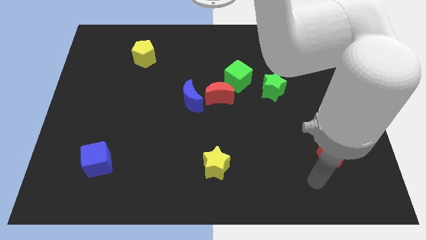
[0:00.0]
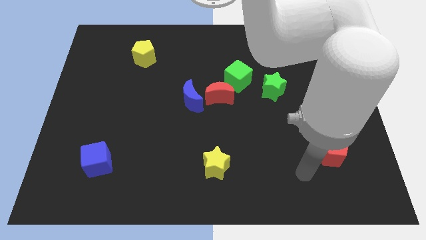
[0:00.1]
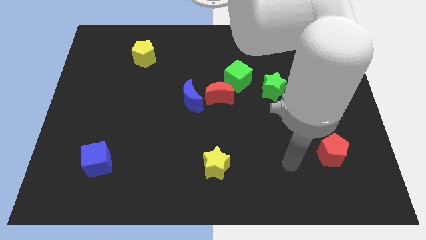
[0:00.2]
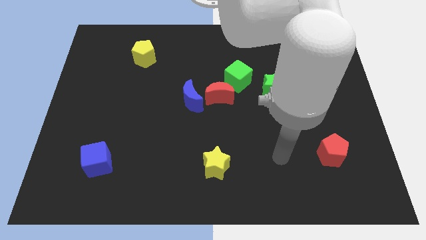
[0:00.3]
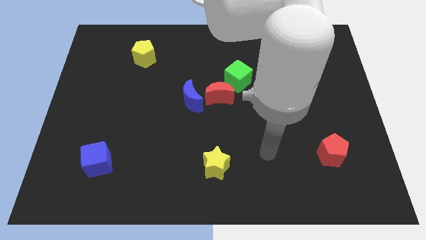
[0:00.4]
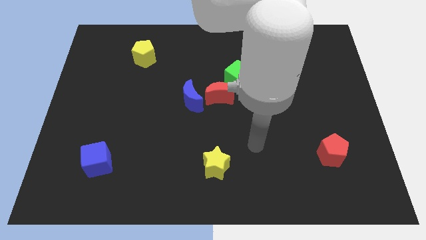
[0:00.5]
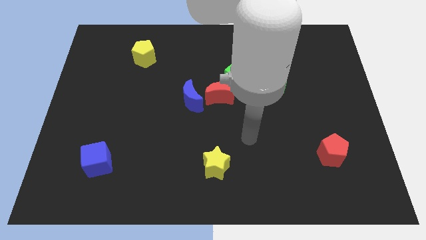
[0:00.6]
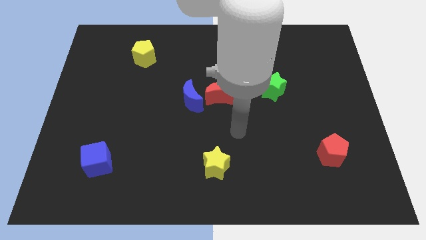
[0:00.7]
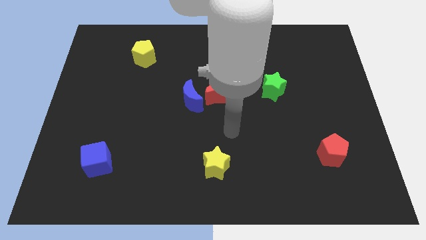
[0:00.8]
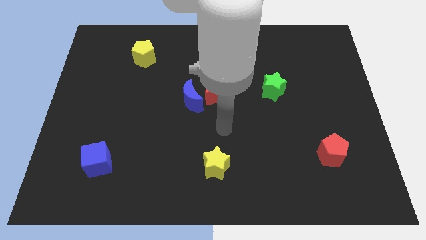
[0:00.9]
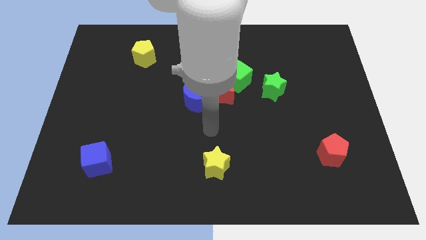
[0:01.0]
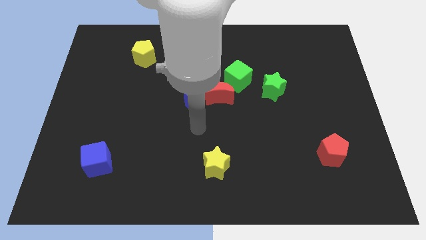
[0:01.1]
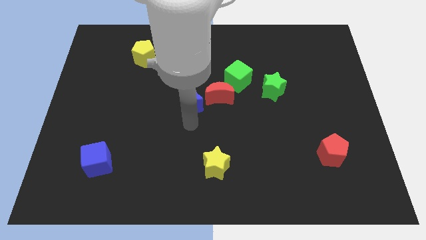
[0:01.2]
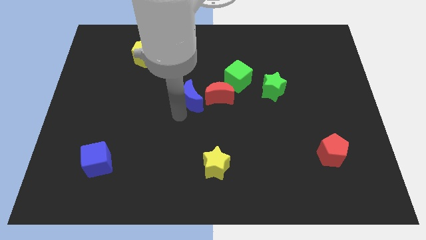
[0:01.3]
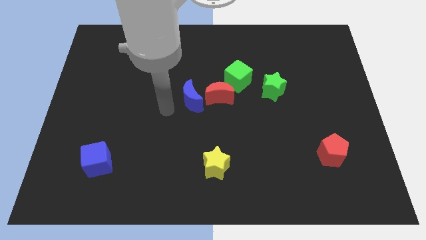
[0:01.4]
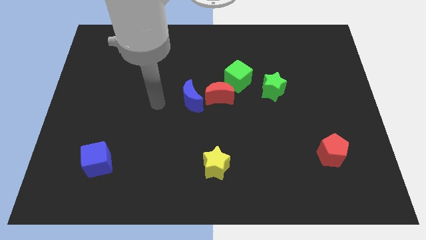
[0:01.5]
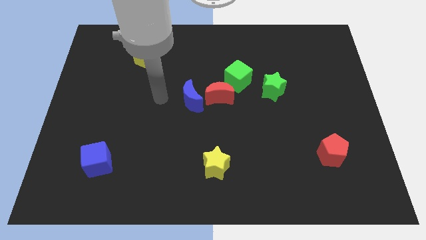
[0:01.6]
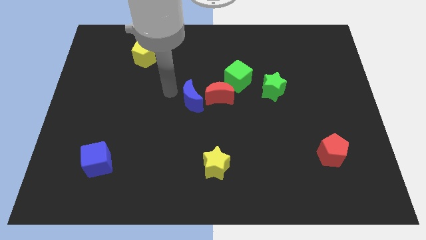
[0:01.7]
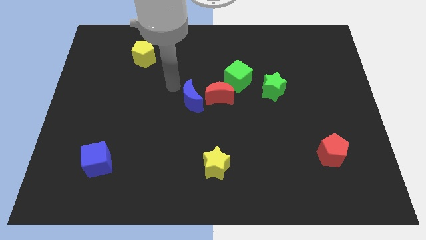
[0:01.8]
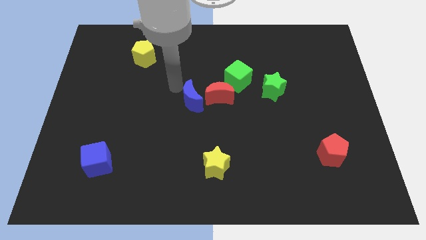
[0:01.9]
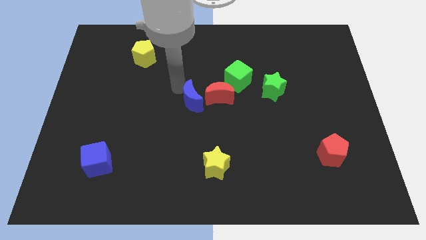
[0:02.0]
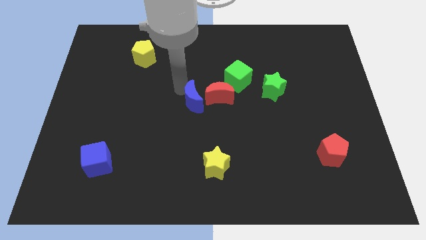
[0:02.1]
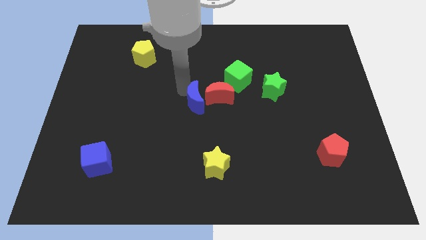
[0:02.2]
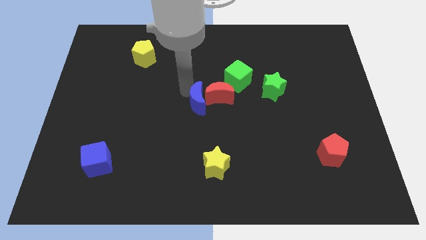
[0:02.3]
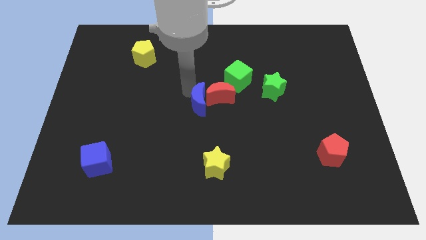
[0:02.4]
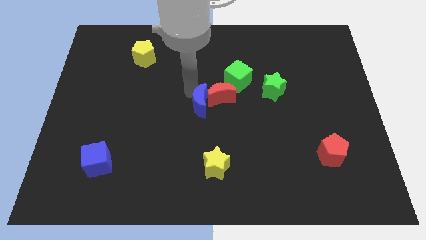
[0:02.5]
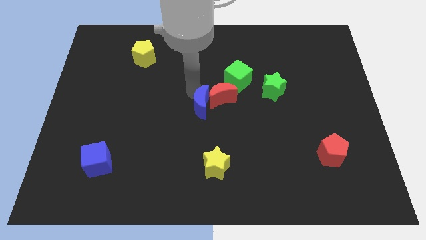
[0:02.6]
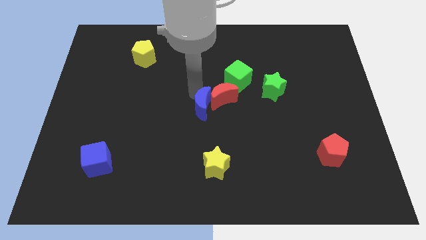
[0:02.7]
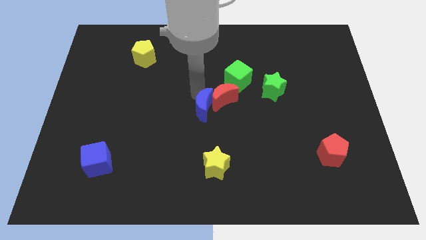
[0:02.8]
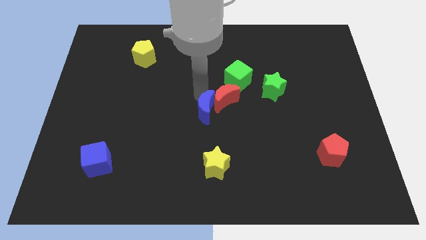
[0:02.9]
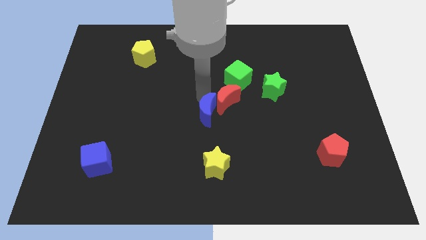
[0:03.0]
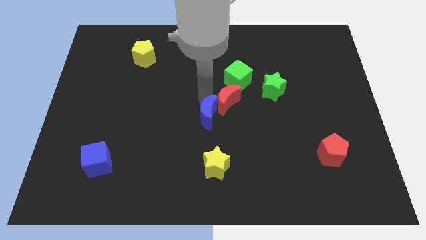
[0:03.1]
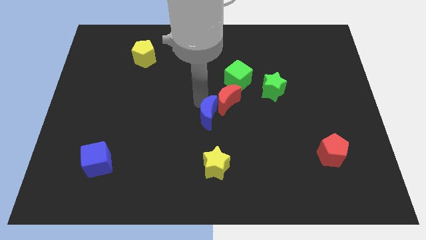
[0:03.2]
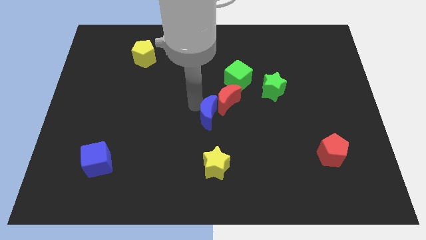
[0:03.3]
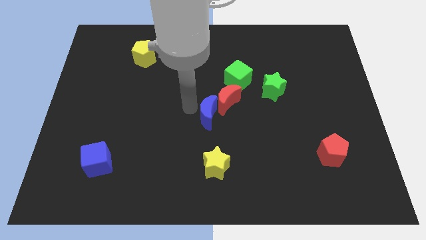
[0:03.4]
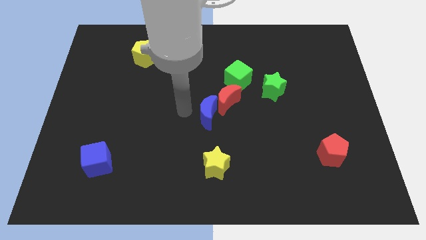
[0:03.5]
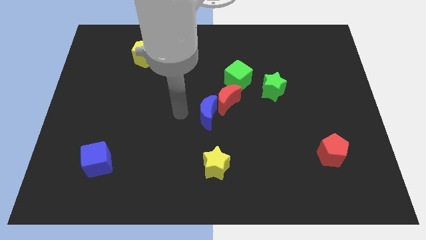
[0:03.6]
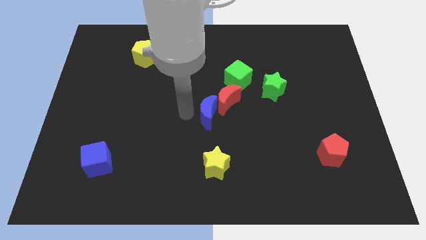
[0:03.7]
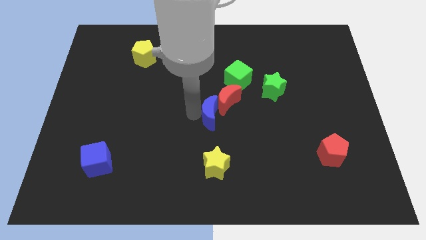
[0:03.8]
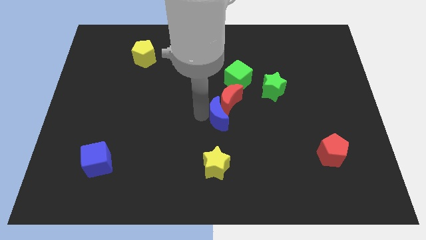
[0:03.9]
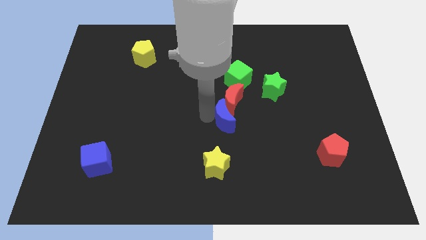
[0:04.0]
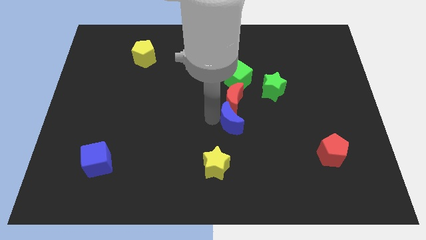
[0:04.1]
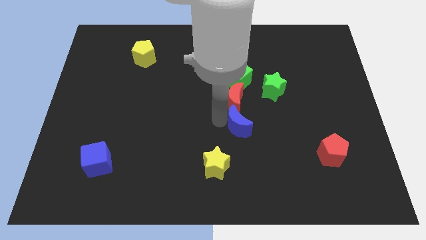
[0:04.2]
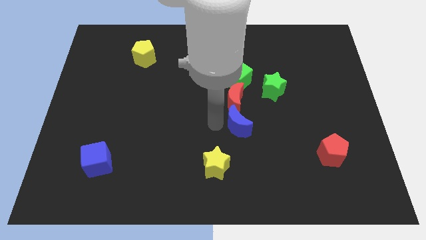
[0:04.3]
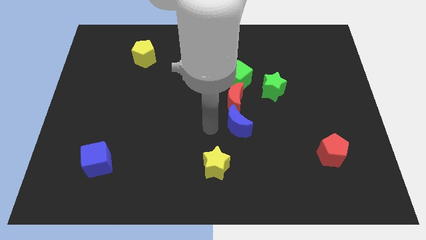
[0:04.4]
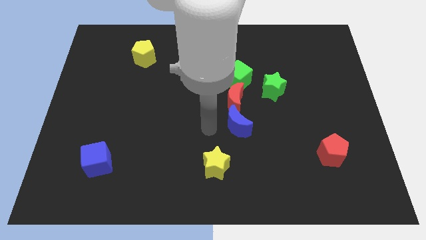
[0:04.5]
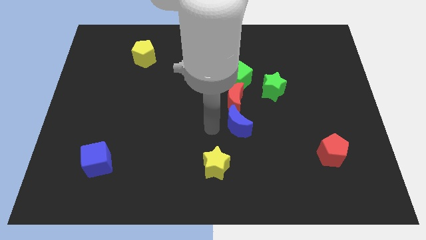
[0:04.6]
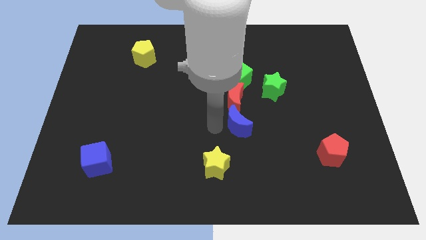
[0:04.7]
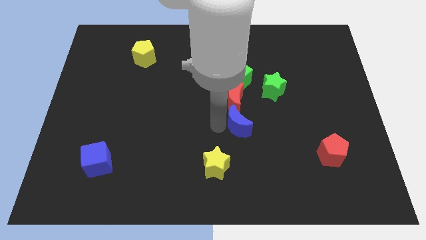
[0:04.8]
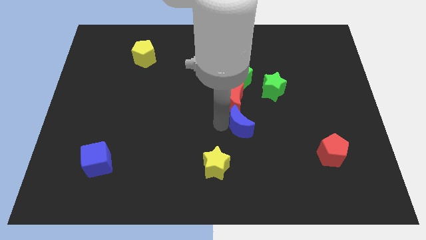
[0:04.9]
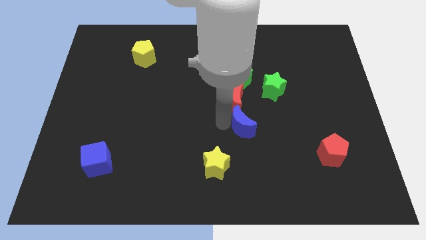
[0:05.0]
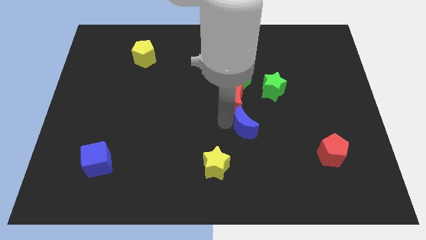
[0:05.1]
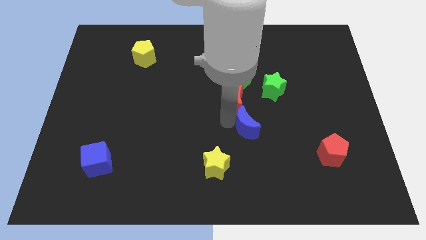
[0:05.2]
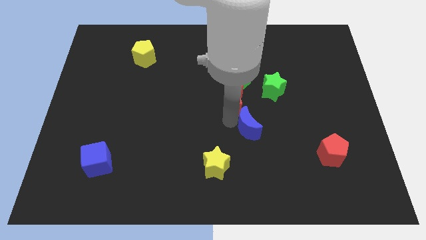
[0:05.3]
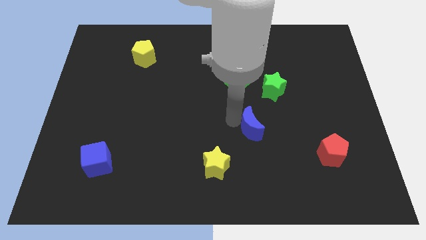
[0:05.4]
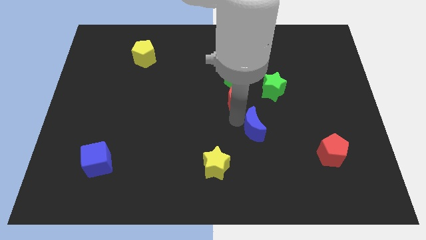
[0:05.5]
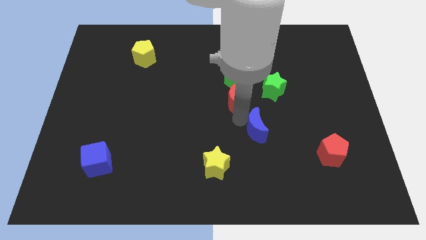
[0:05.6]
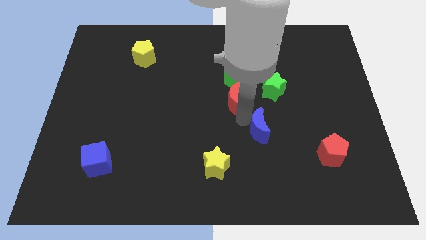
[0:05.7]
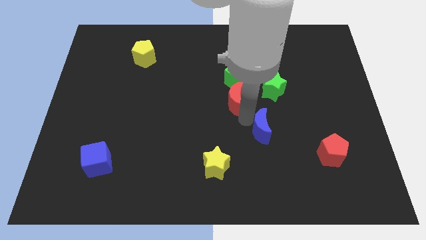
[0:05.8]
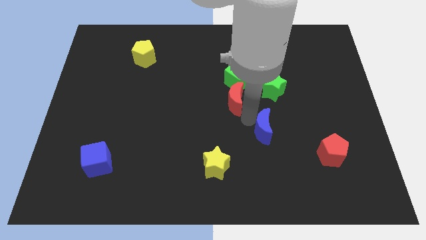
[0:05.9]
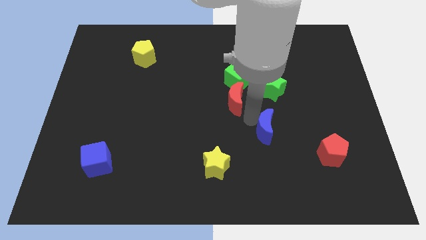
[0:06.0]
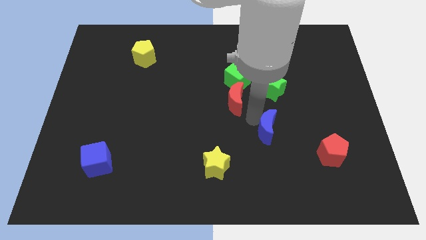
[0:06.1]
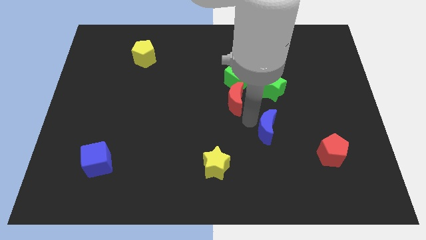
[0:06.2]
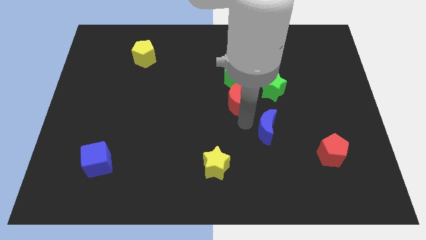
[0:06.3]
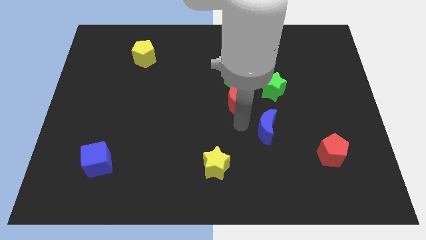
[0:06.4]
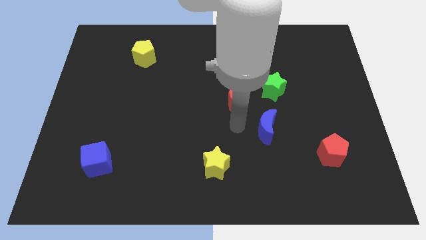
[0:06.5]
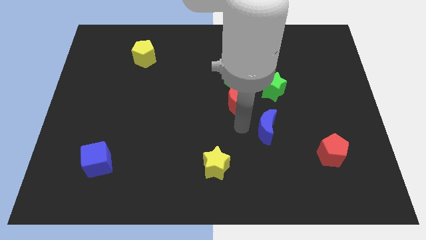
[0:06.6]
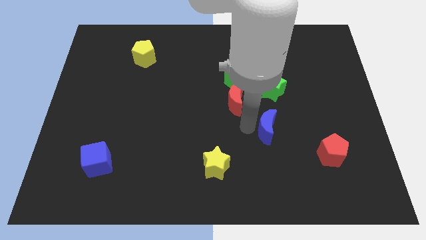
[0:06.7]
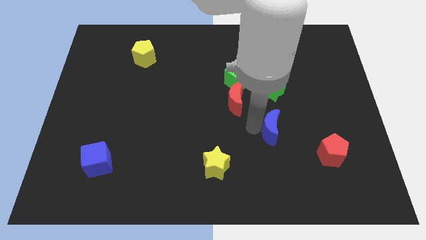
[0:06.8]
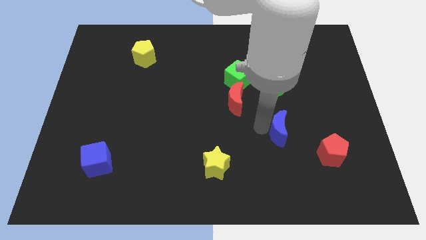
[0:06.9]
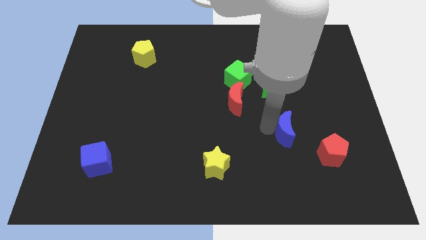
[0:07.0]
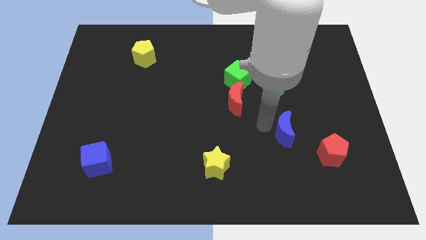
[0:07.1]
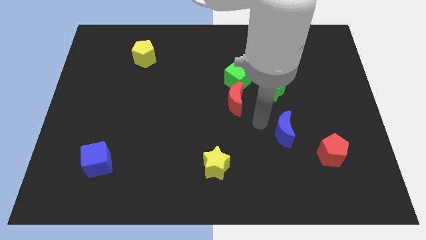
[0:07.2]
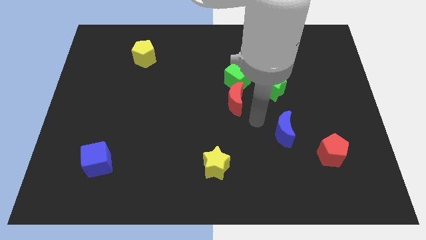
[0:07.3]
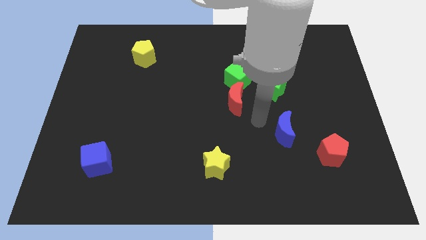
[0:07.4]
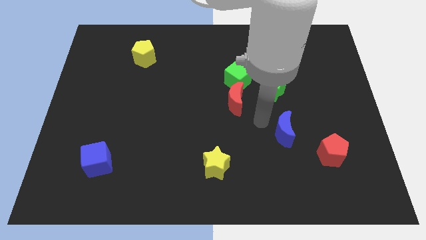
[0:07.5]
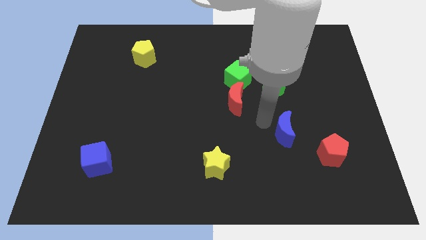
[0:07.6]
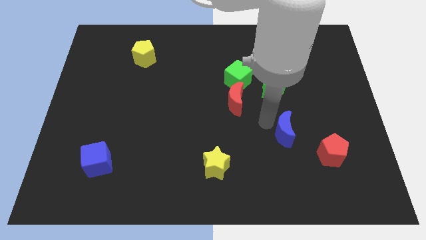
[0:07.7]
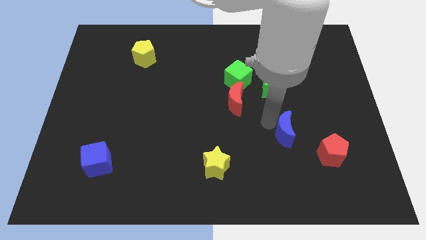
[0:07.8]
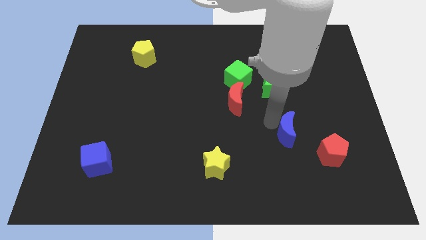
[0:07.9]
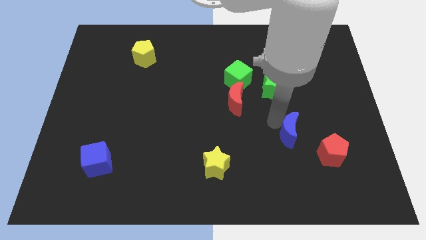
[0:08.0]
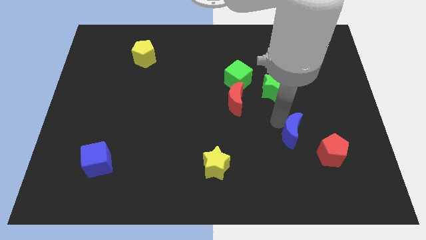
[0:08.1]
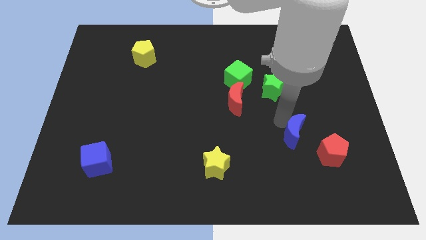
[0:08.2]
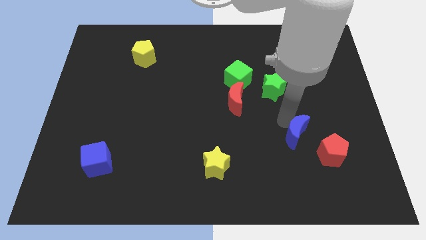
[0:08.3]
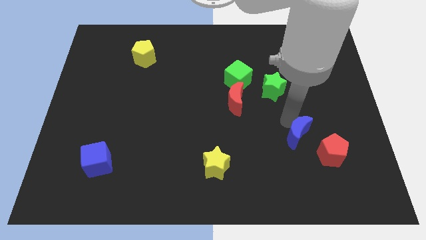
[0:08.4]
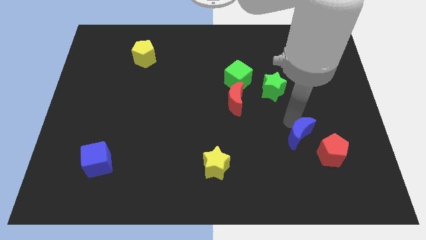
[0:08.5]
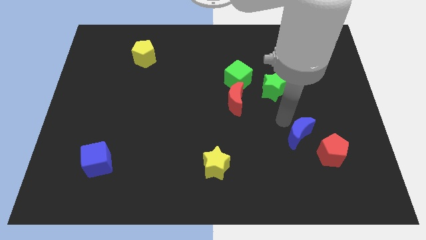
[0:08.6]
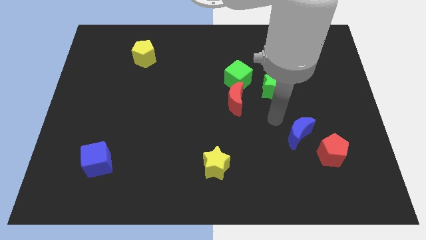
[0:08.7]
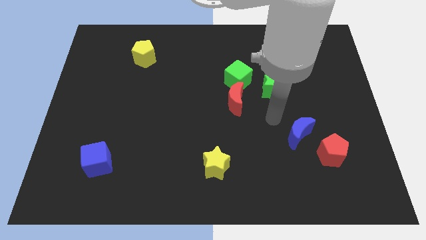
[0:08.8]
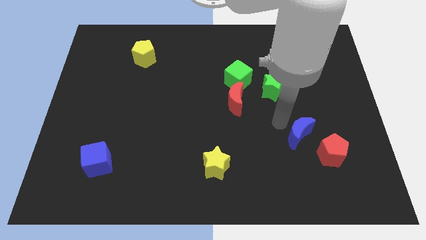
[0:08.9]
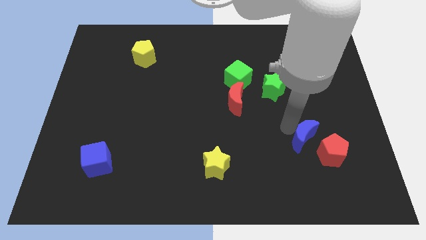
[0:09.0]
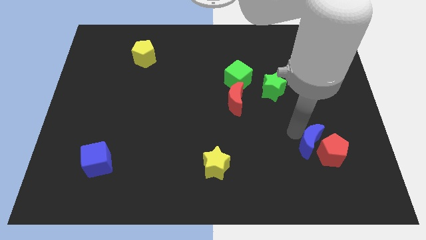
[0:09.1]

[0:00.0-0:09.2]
move the blue moon next to the red pentagon
